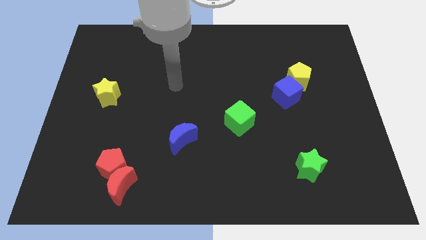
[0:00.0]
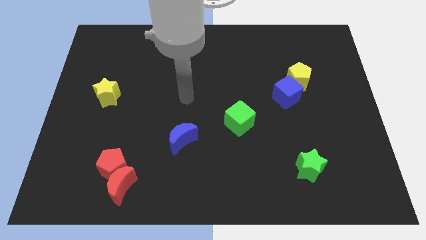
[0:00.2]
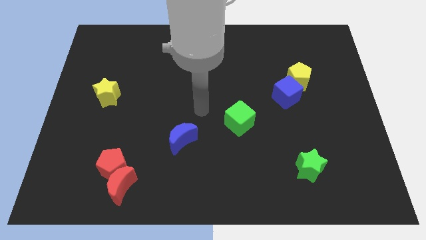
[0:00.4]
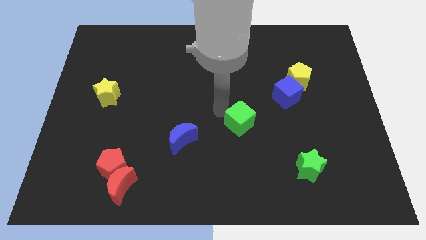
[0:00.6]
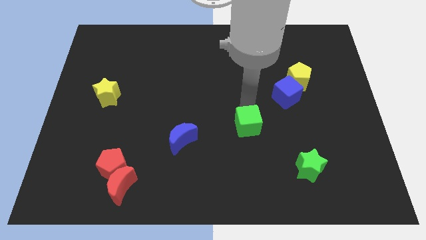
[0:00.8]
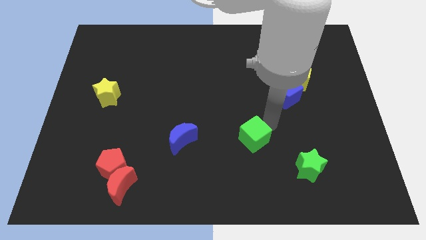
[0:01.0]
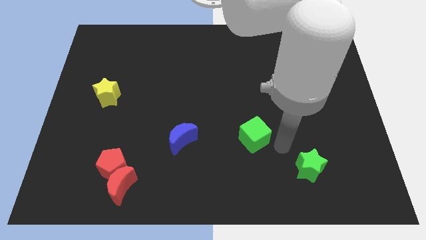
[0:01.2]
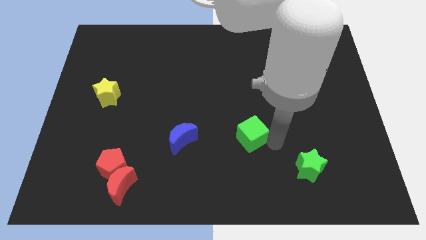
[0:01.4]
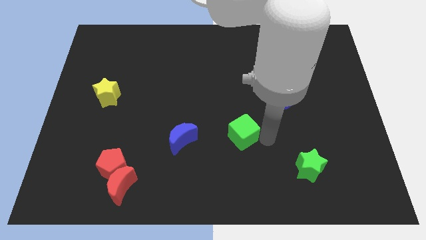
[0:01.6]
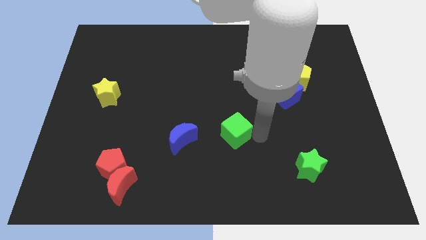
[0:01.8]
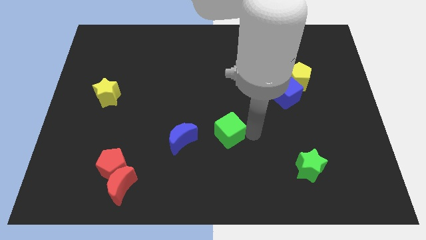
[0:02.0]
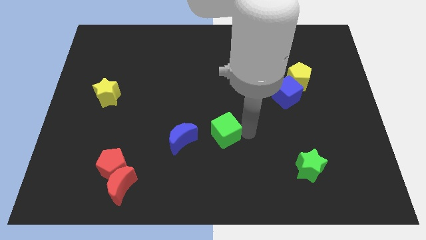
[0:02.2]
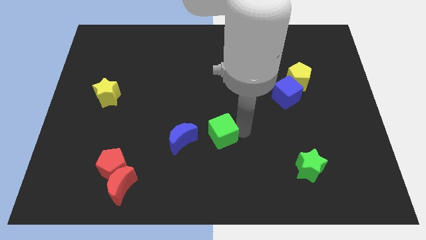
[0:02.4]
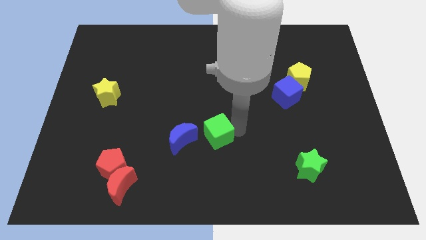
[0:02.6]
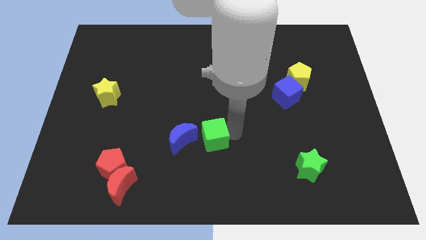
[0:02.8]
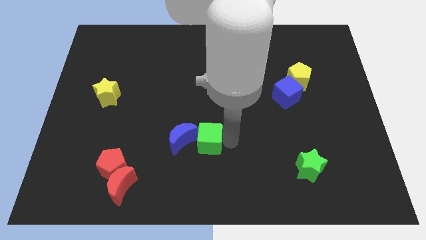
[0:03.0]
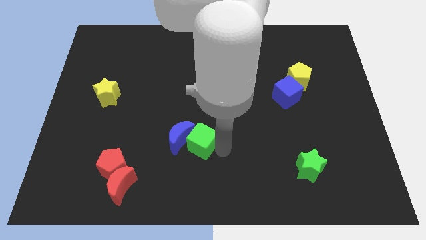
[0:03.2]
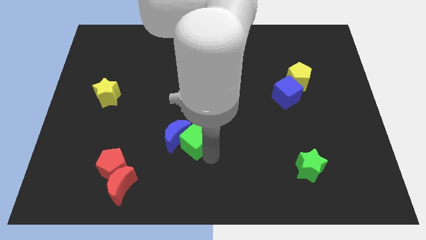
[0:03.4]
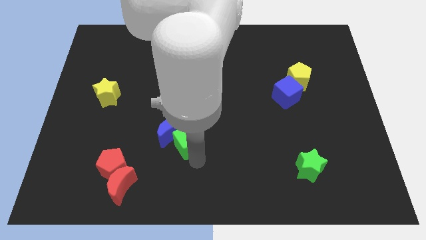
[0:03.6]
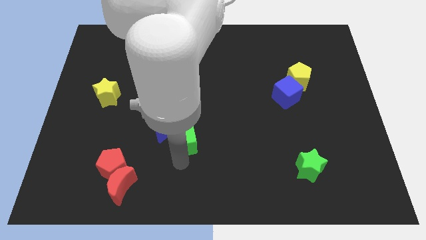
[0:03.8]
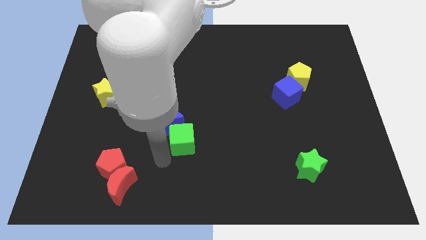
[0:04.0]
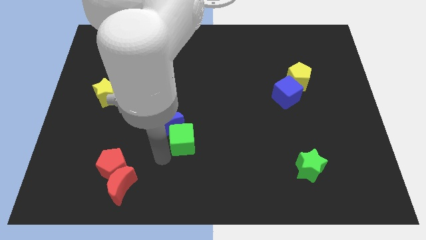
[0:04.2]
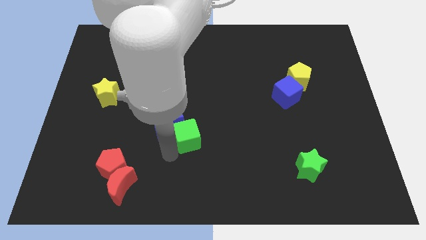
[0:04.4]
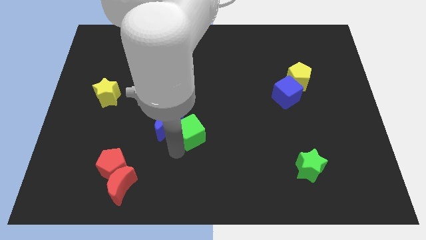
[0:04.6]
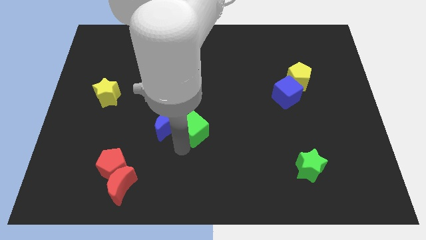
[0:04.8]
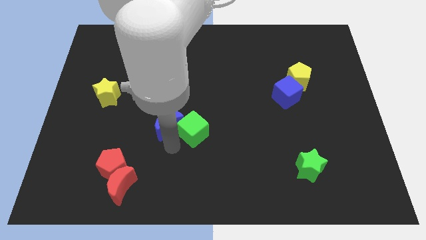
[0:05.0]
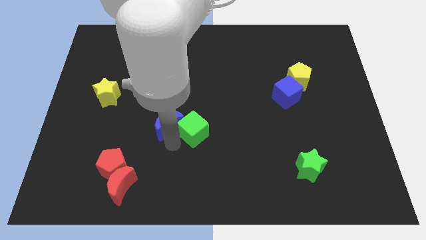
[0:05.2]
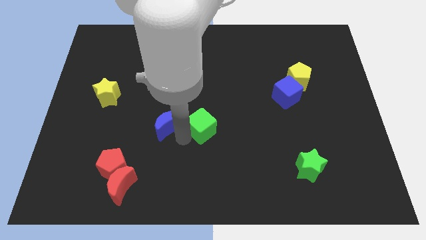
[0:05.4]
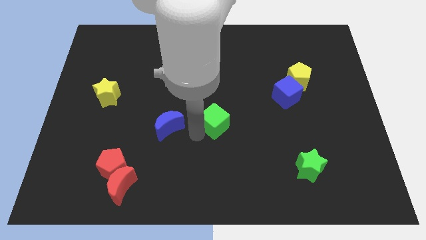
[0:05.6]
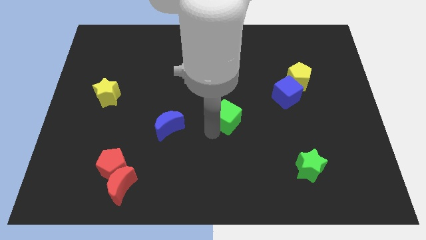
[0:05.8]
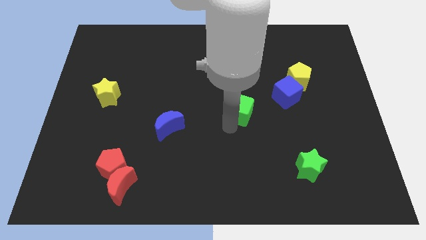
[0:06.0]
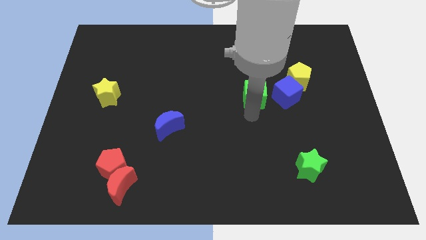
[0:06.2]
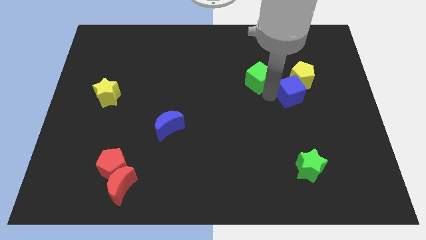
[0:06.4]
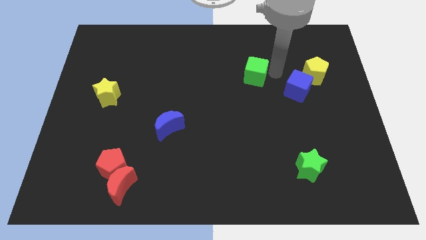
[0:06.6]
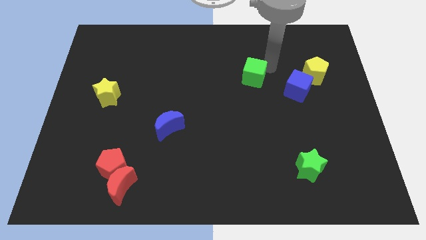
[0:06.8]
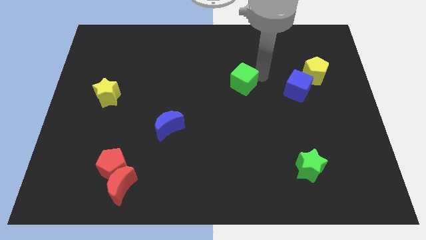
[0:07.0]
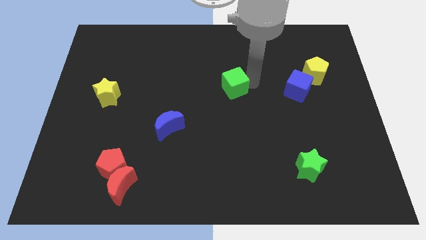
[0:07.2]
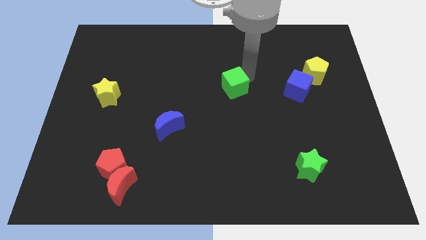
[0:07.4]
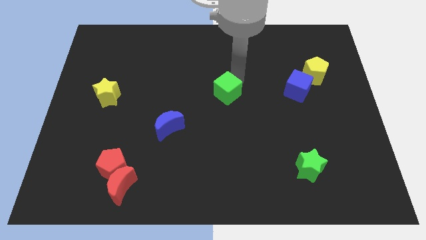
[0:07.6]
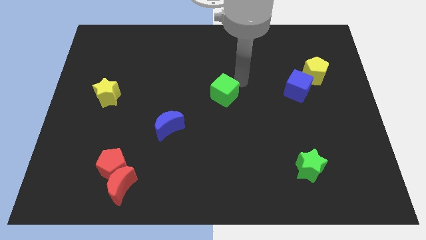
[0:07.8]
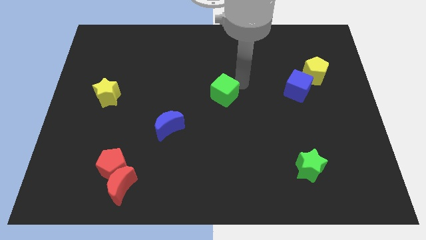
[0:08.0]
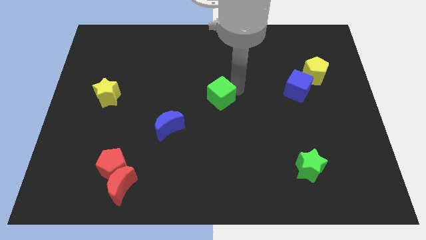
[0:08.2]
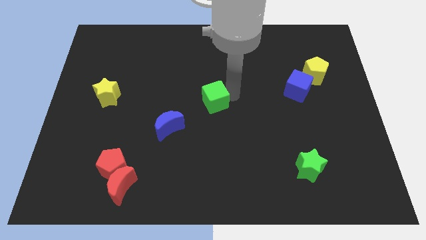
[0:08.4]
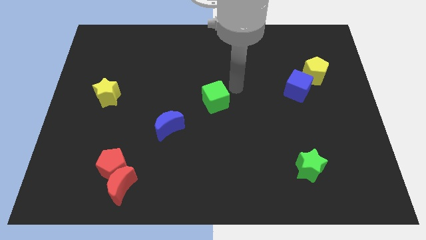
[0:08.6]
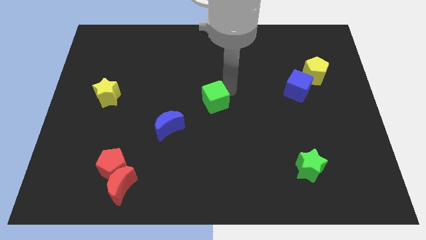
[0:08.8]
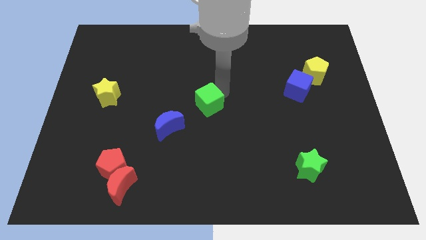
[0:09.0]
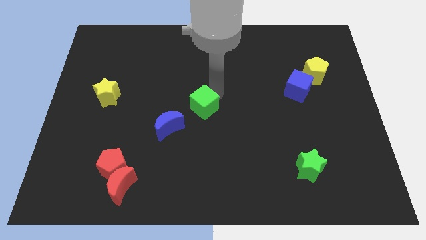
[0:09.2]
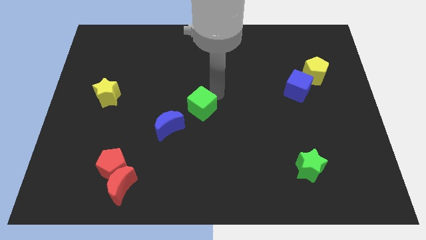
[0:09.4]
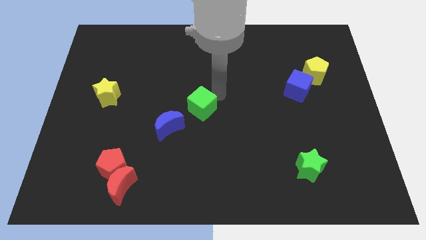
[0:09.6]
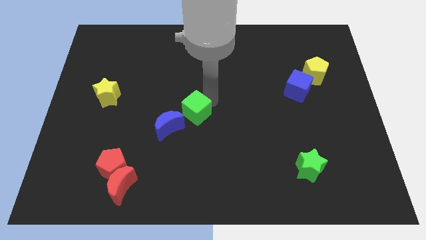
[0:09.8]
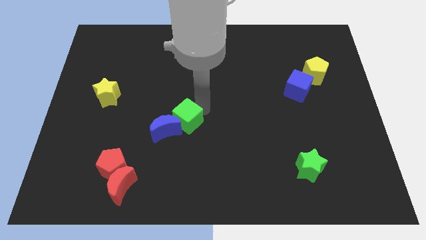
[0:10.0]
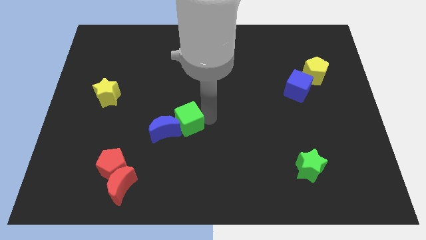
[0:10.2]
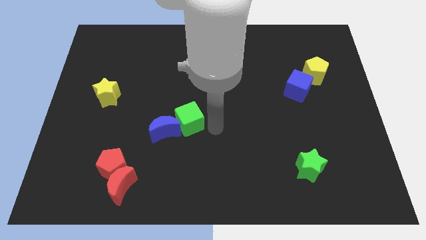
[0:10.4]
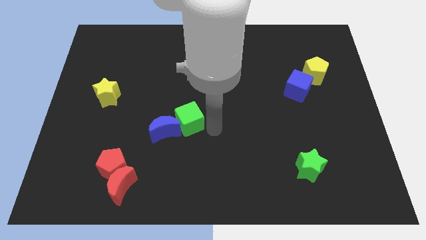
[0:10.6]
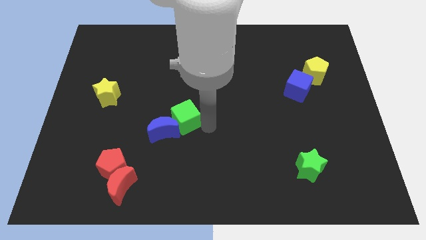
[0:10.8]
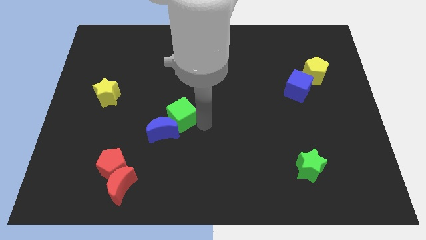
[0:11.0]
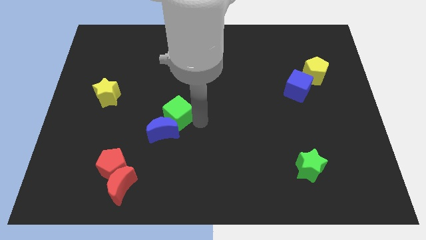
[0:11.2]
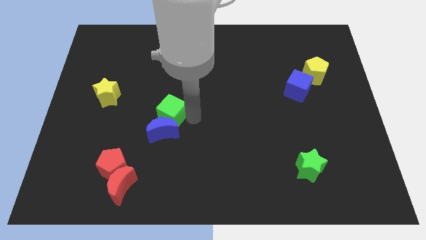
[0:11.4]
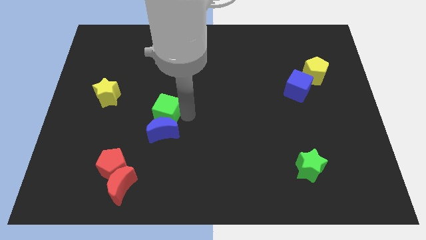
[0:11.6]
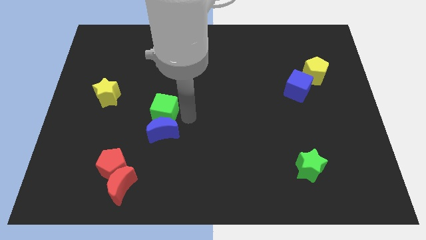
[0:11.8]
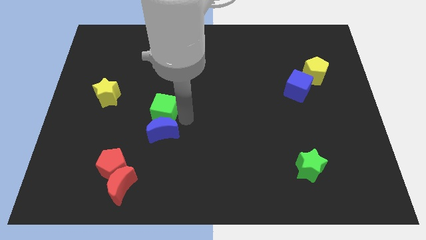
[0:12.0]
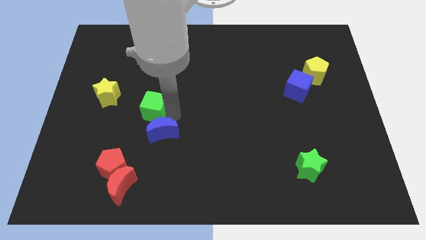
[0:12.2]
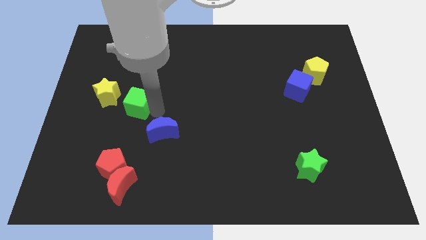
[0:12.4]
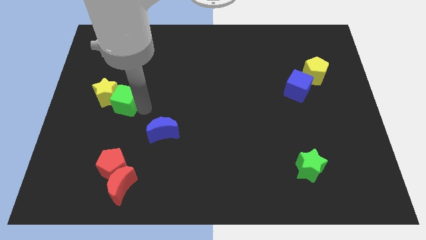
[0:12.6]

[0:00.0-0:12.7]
push the green cube next to the yellow star

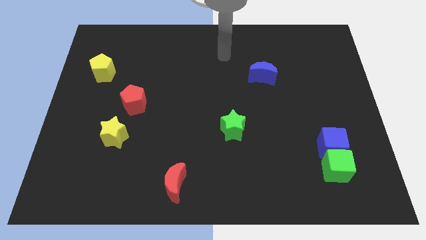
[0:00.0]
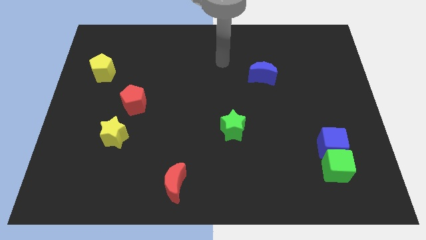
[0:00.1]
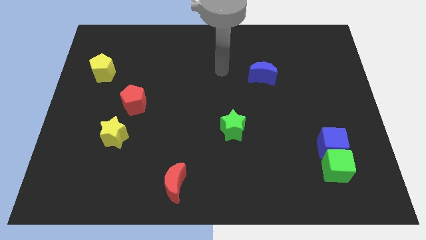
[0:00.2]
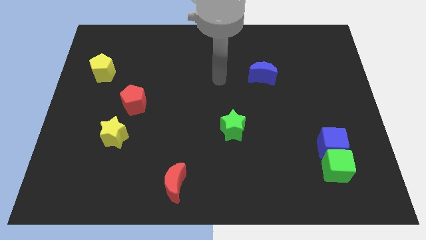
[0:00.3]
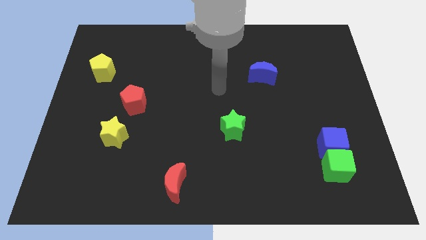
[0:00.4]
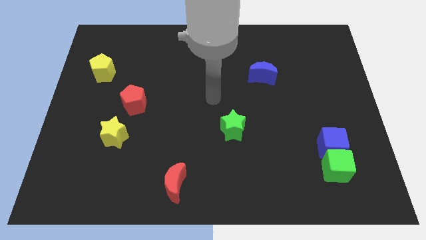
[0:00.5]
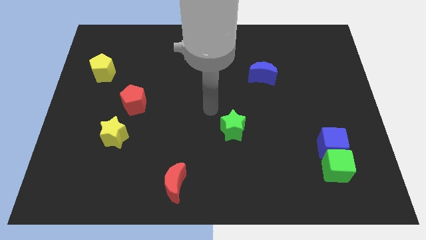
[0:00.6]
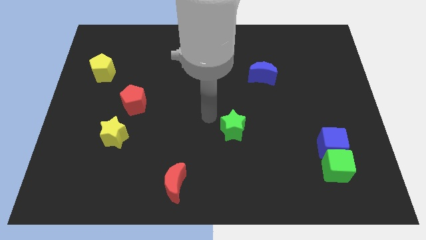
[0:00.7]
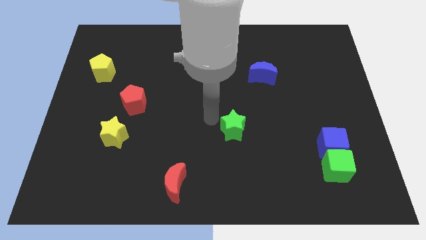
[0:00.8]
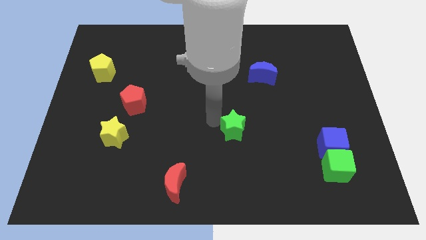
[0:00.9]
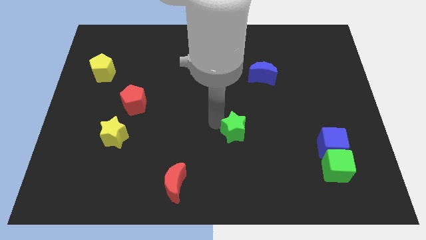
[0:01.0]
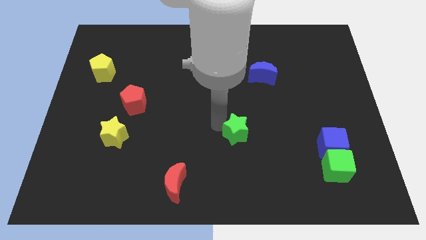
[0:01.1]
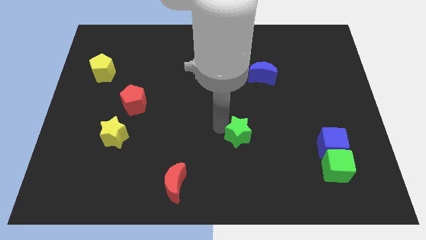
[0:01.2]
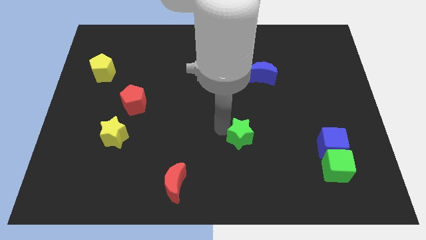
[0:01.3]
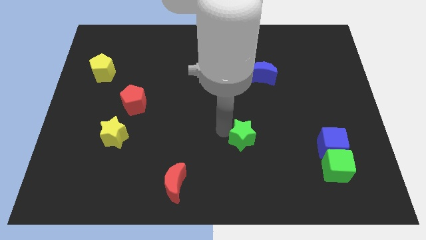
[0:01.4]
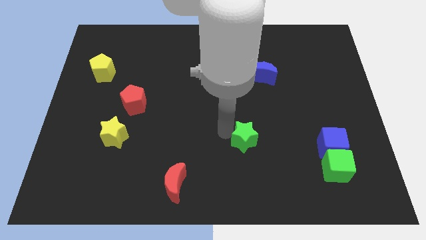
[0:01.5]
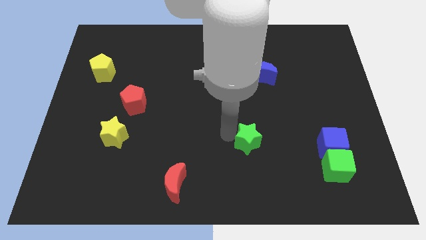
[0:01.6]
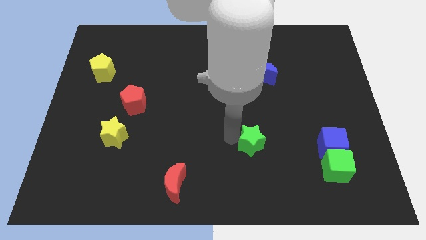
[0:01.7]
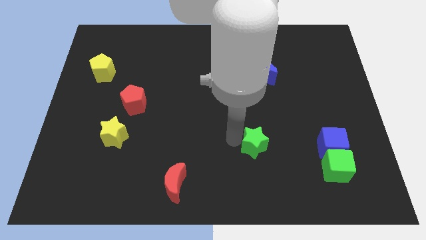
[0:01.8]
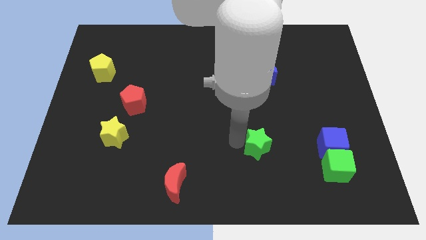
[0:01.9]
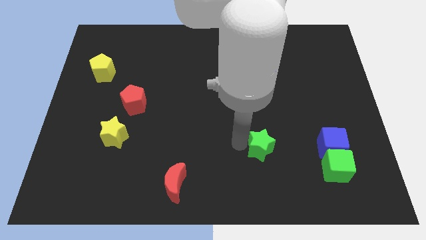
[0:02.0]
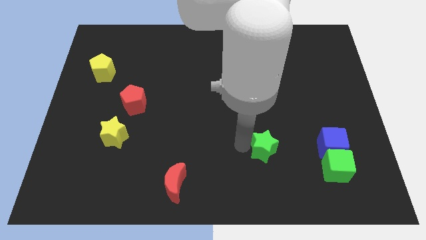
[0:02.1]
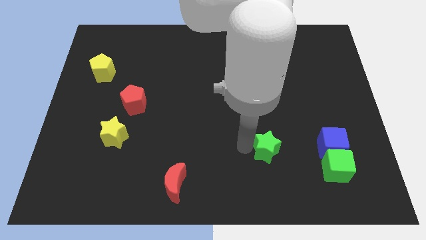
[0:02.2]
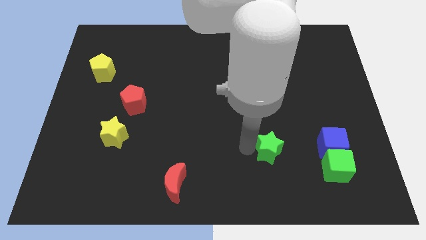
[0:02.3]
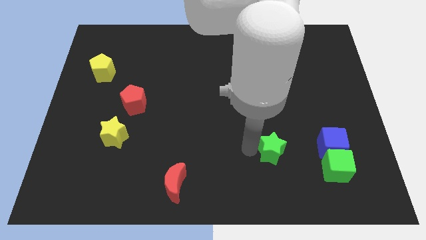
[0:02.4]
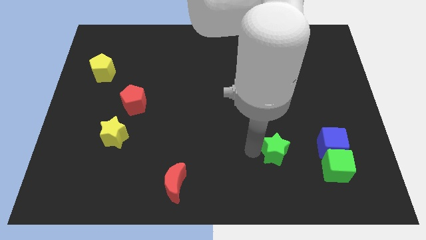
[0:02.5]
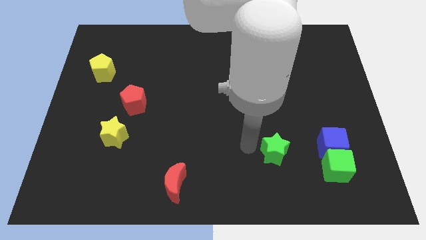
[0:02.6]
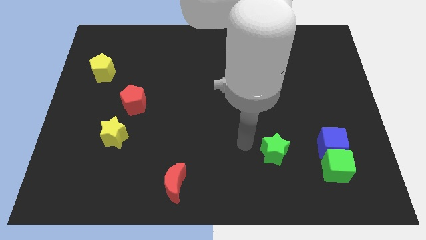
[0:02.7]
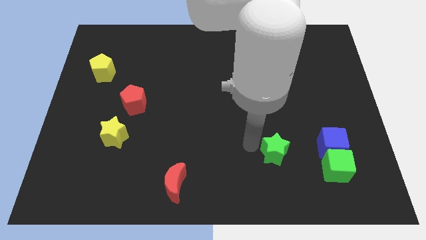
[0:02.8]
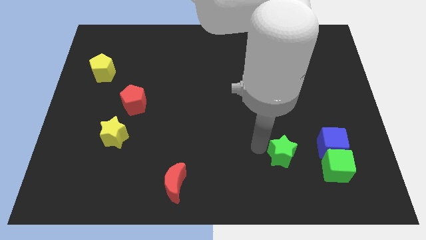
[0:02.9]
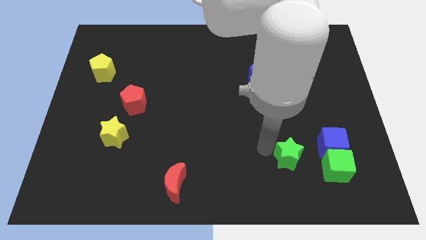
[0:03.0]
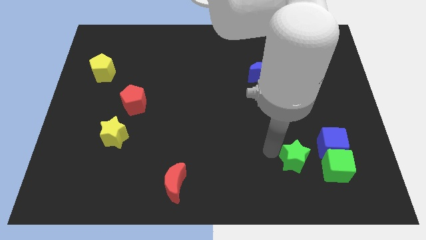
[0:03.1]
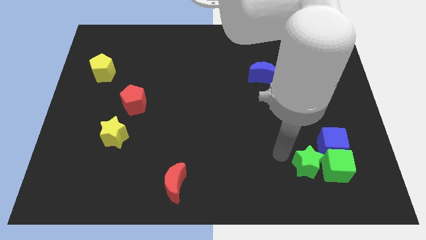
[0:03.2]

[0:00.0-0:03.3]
put the green star next to the green cube
